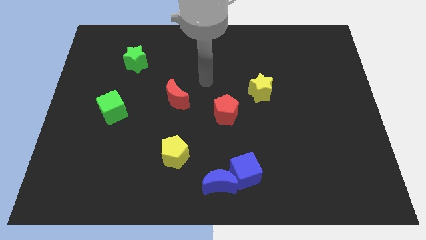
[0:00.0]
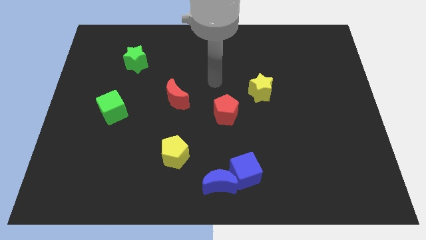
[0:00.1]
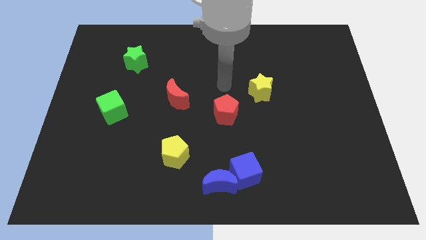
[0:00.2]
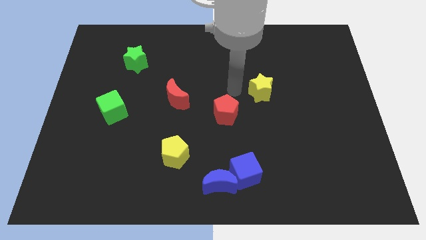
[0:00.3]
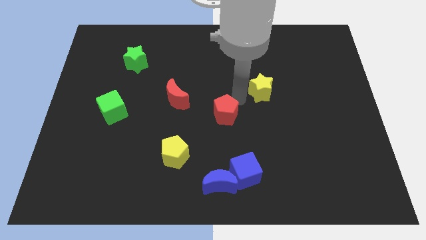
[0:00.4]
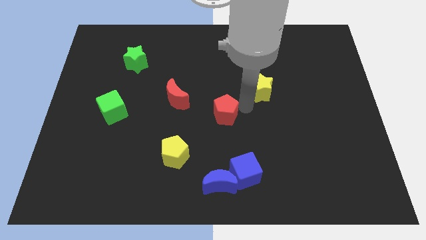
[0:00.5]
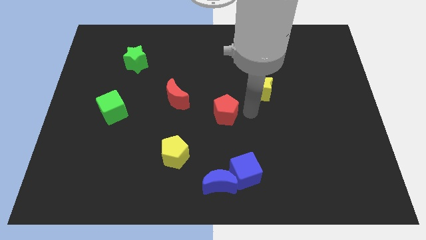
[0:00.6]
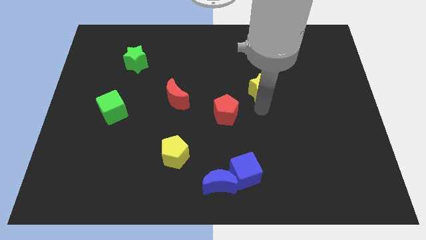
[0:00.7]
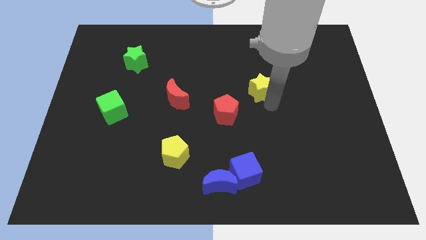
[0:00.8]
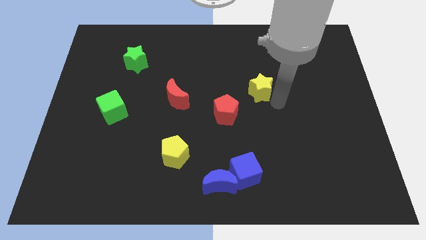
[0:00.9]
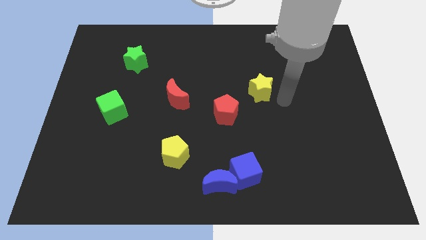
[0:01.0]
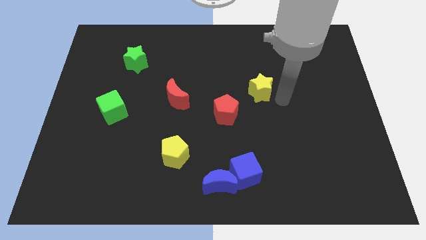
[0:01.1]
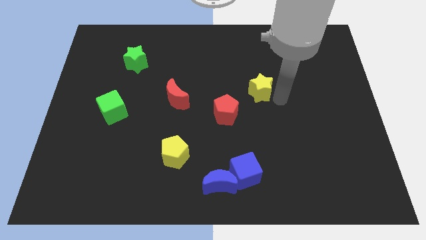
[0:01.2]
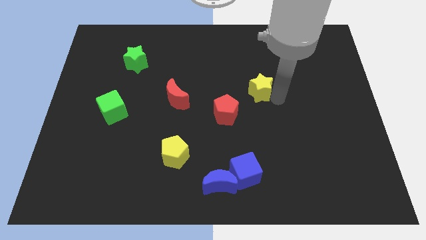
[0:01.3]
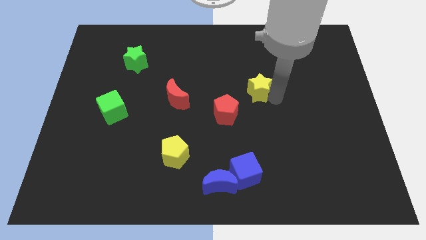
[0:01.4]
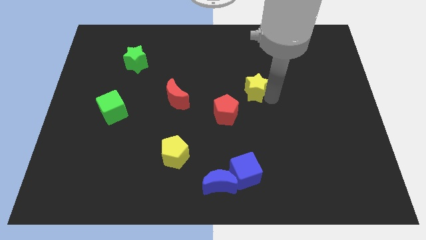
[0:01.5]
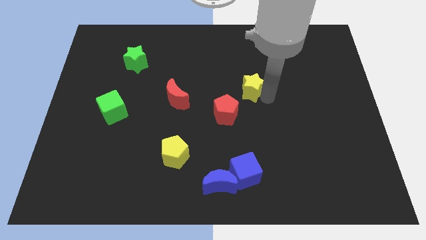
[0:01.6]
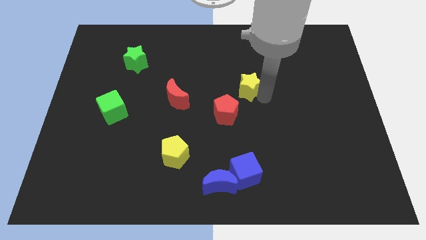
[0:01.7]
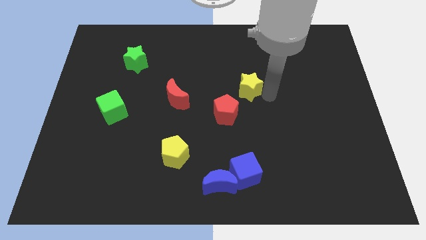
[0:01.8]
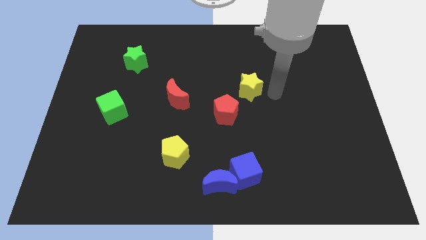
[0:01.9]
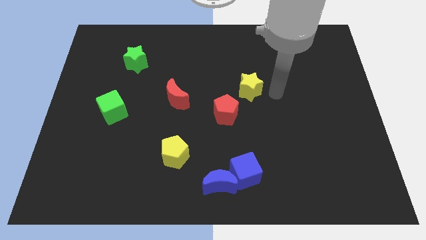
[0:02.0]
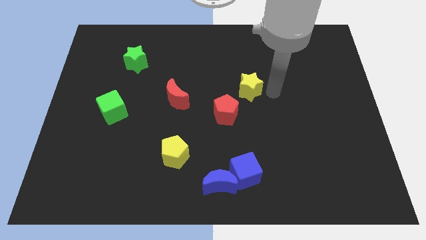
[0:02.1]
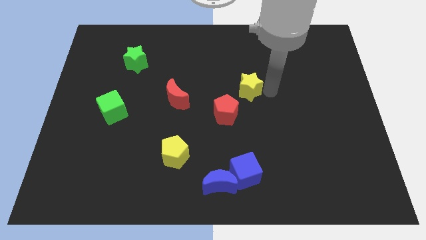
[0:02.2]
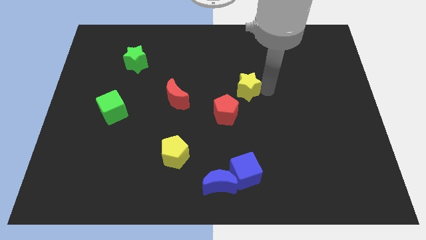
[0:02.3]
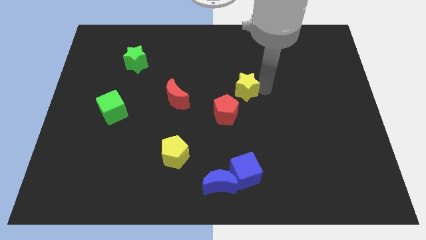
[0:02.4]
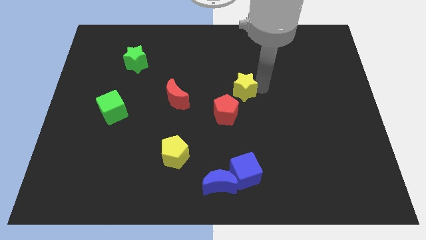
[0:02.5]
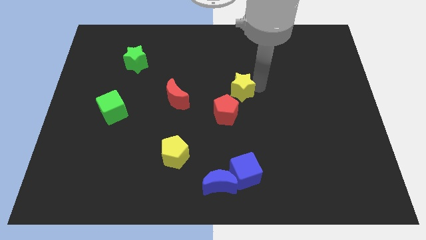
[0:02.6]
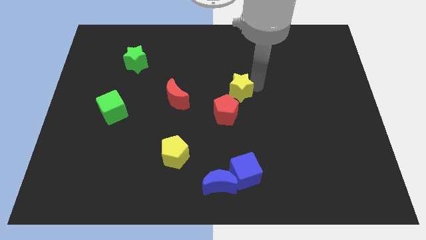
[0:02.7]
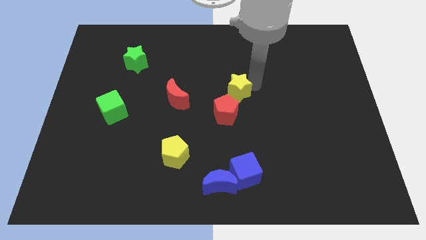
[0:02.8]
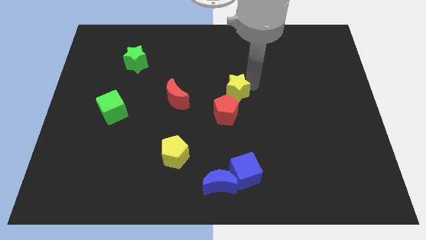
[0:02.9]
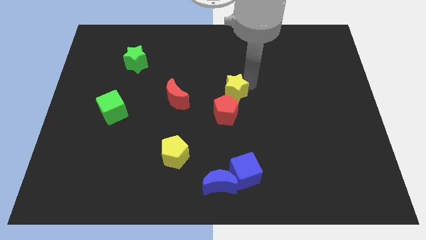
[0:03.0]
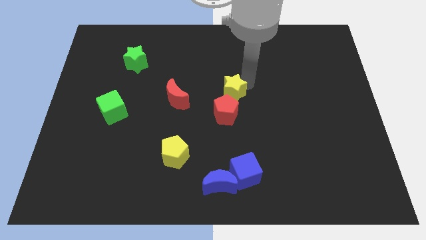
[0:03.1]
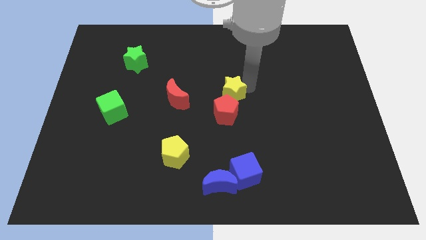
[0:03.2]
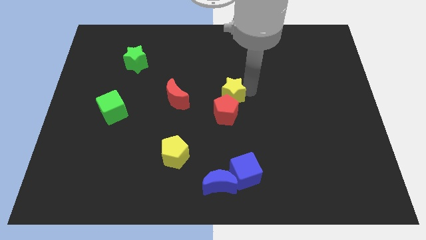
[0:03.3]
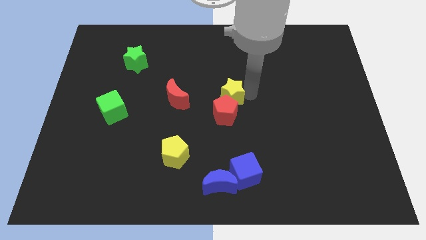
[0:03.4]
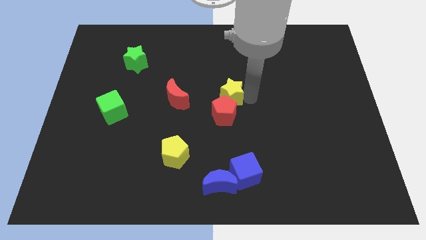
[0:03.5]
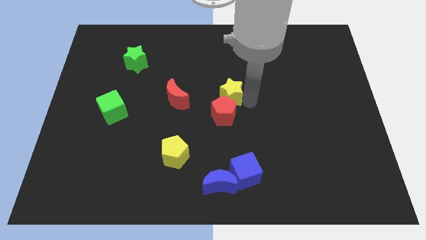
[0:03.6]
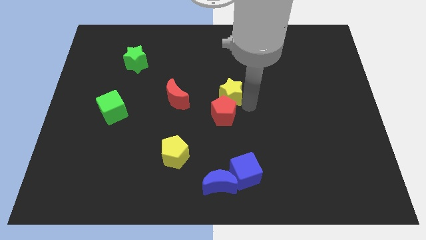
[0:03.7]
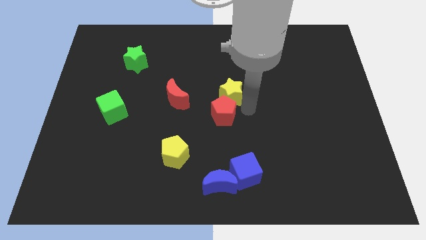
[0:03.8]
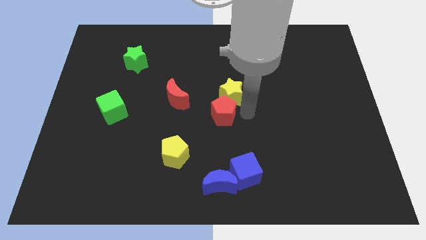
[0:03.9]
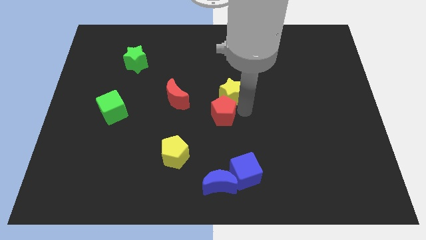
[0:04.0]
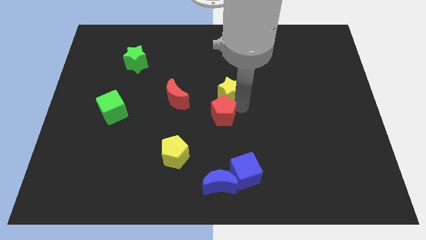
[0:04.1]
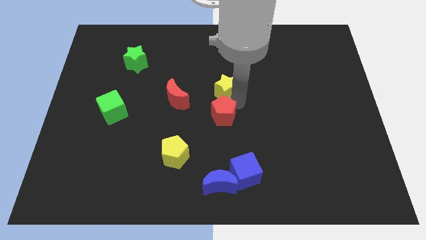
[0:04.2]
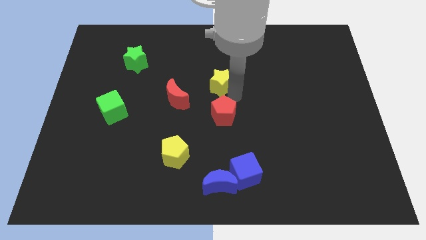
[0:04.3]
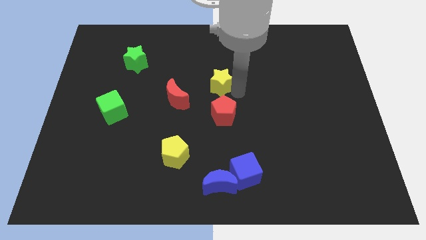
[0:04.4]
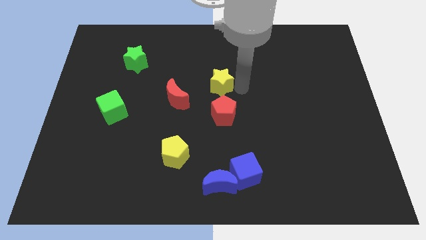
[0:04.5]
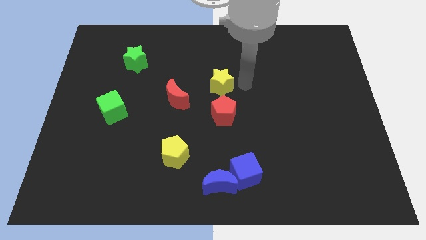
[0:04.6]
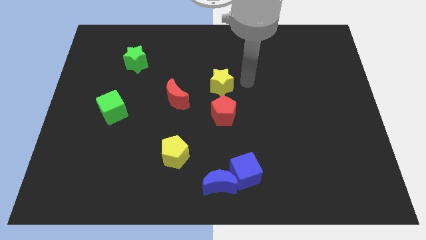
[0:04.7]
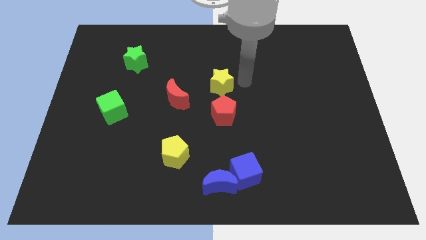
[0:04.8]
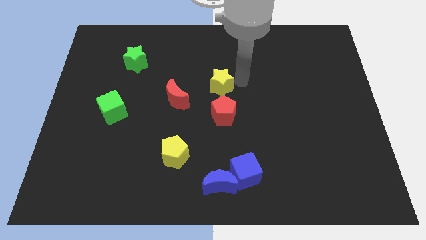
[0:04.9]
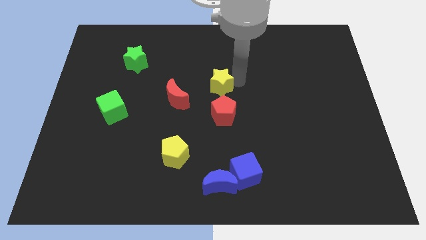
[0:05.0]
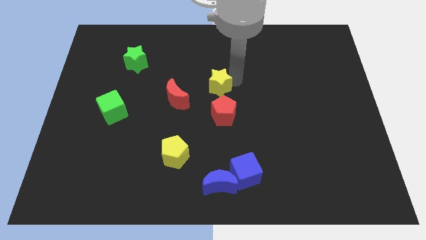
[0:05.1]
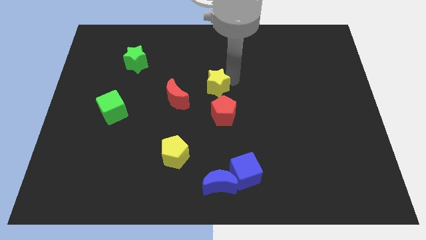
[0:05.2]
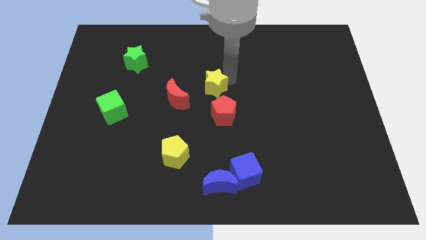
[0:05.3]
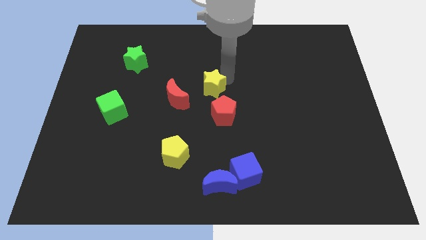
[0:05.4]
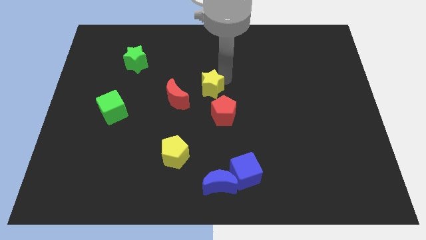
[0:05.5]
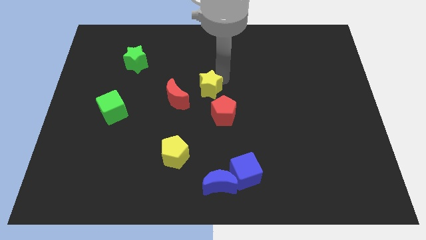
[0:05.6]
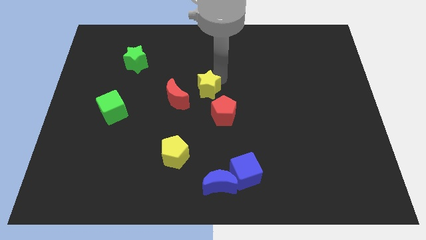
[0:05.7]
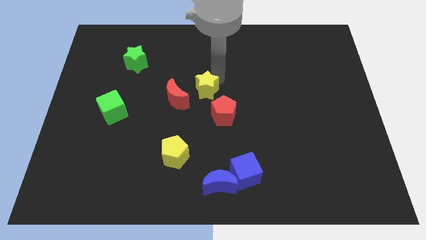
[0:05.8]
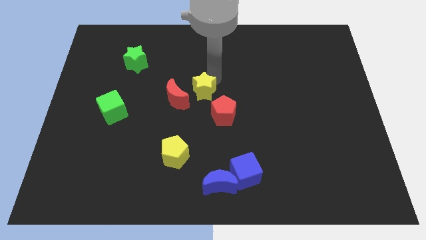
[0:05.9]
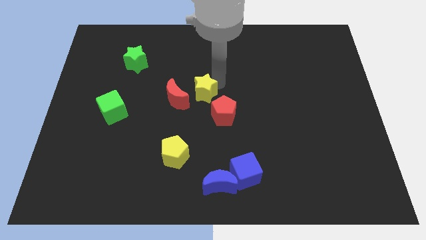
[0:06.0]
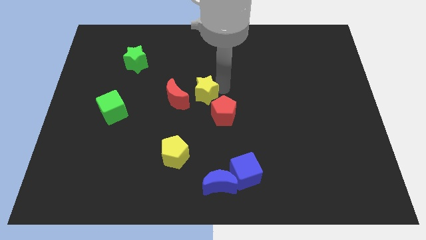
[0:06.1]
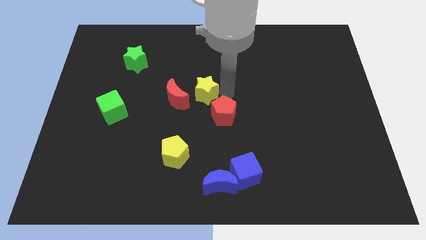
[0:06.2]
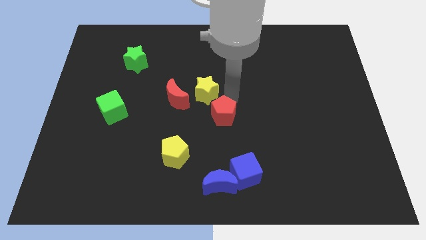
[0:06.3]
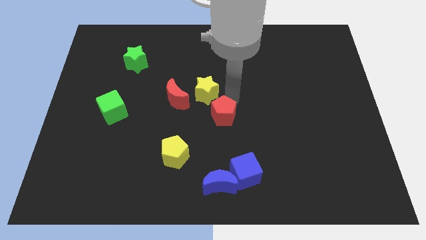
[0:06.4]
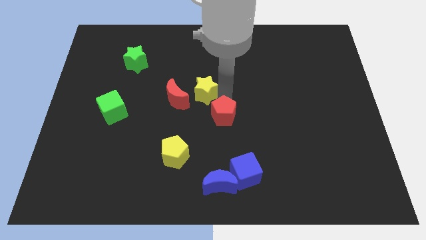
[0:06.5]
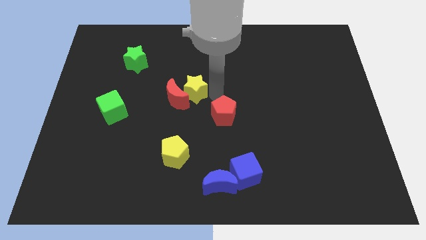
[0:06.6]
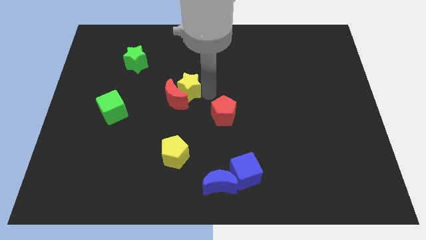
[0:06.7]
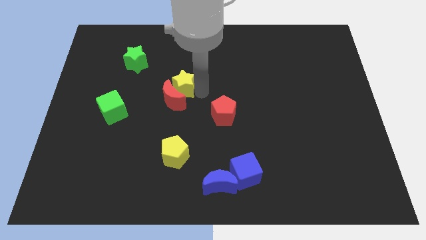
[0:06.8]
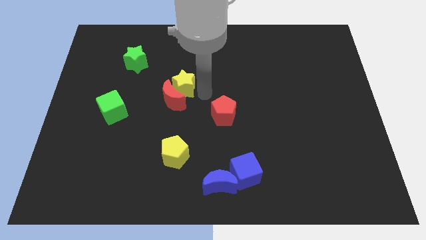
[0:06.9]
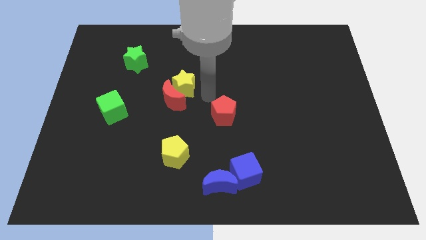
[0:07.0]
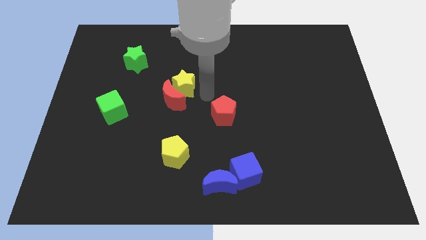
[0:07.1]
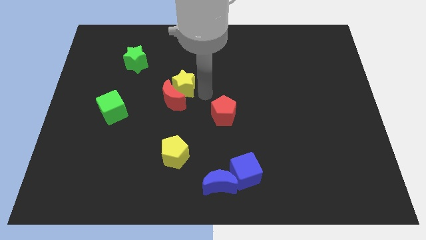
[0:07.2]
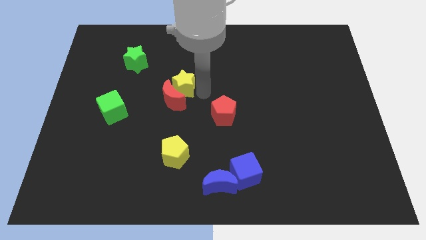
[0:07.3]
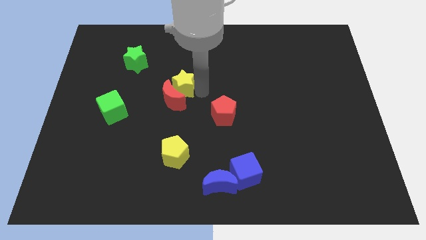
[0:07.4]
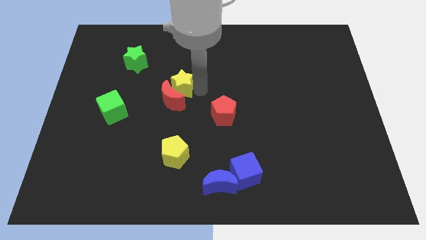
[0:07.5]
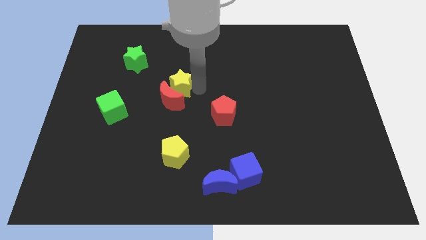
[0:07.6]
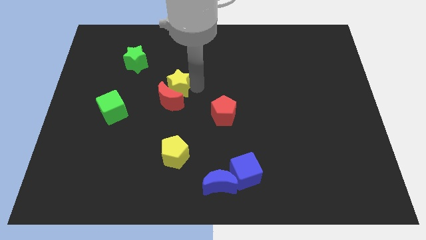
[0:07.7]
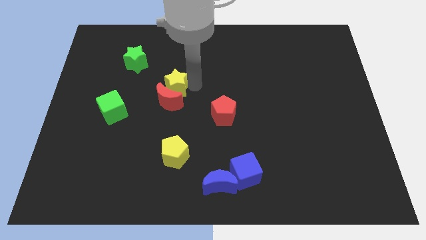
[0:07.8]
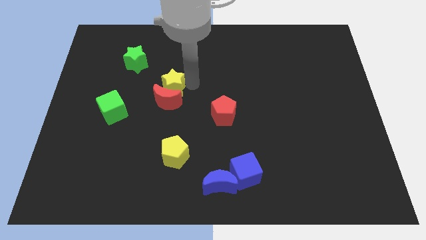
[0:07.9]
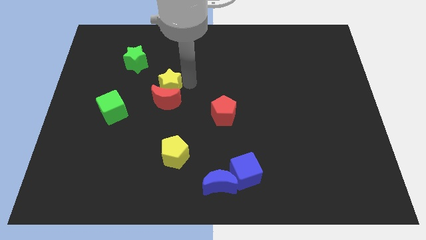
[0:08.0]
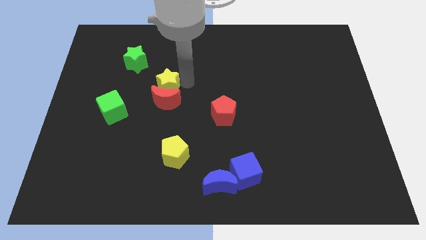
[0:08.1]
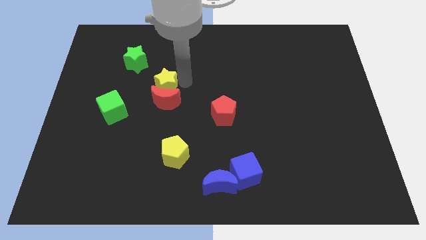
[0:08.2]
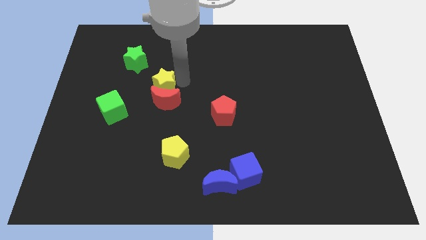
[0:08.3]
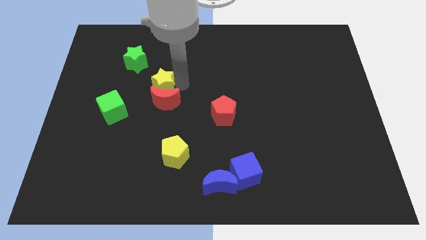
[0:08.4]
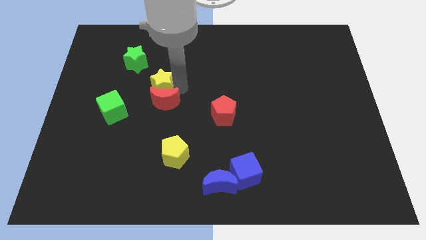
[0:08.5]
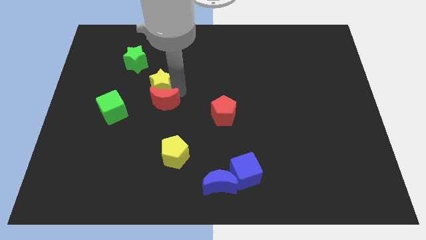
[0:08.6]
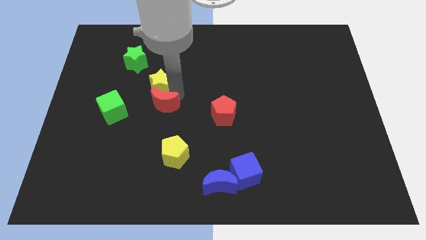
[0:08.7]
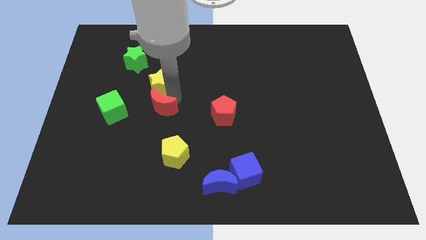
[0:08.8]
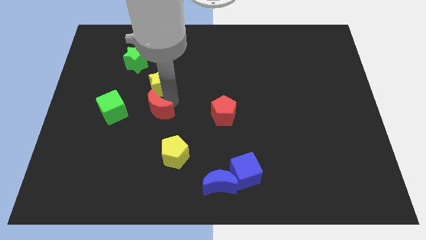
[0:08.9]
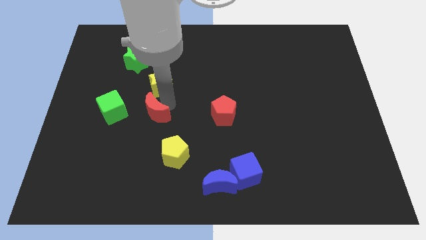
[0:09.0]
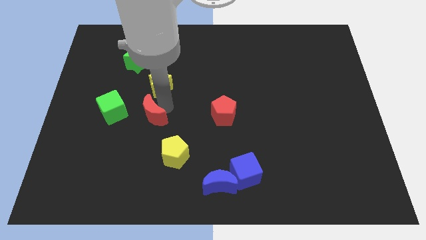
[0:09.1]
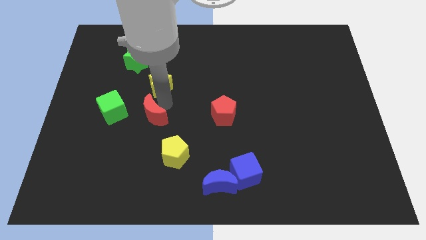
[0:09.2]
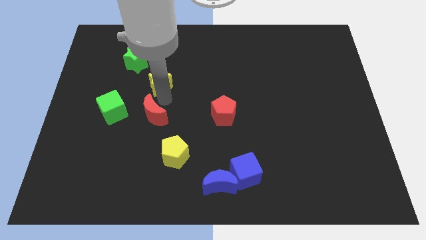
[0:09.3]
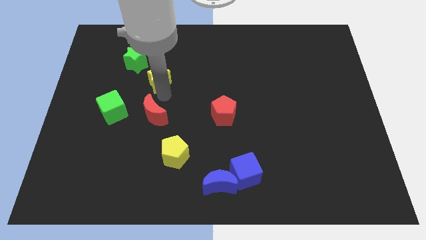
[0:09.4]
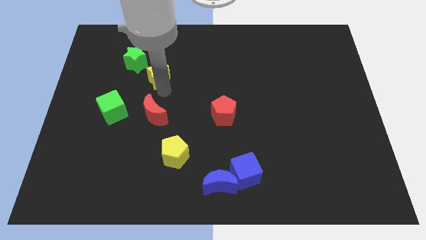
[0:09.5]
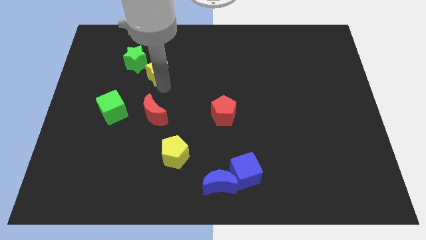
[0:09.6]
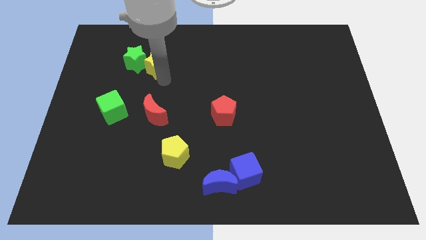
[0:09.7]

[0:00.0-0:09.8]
put the yellow star to the green star
